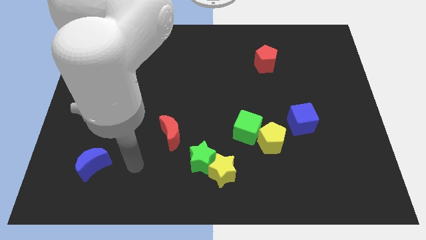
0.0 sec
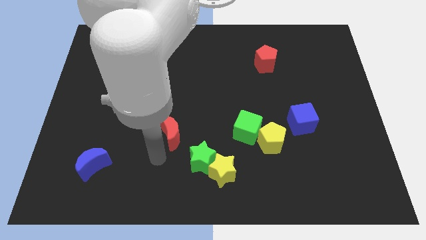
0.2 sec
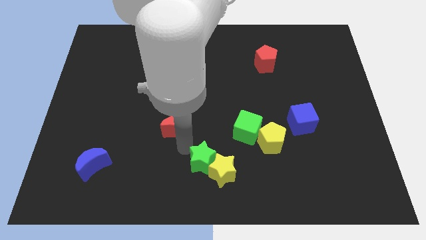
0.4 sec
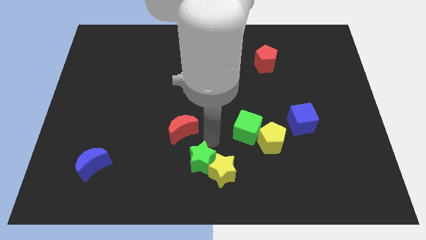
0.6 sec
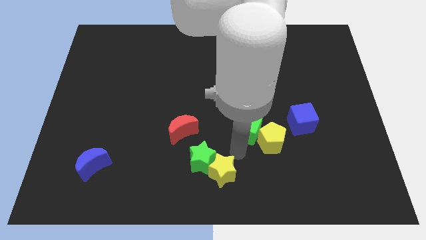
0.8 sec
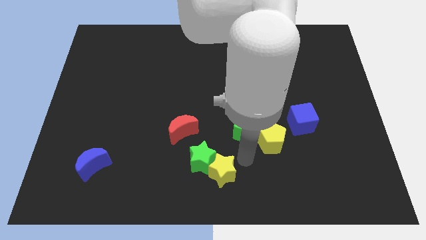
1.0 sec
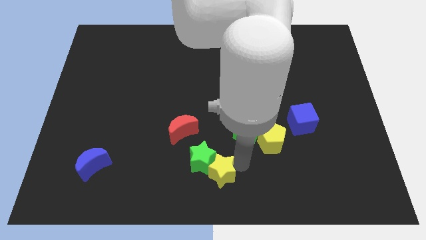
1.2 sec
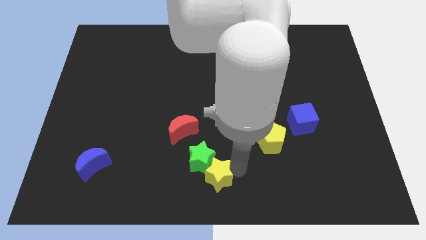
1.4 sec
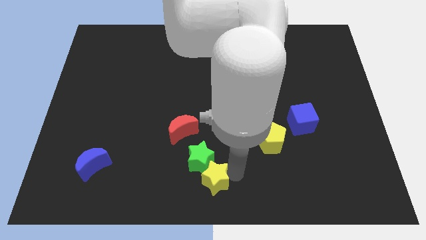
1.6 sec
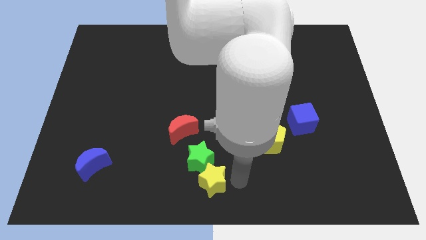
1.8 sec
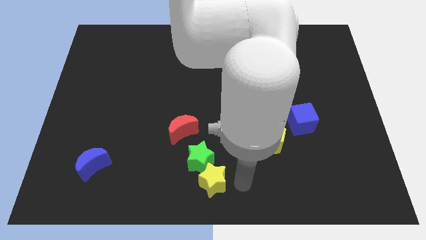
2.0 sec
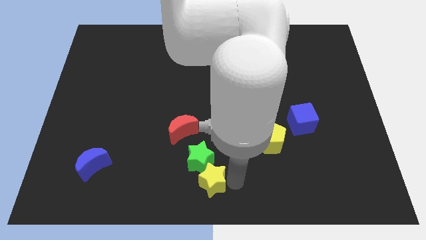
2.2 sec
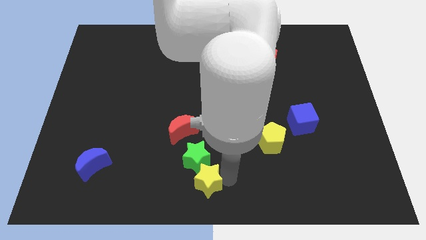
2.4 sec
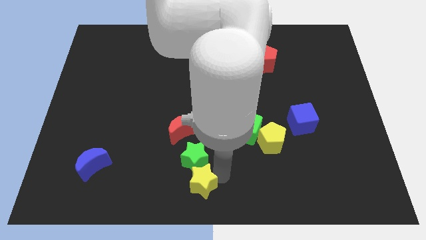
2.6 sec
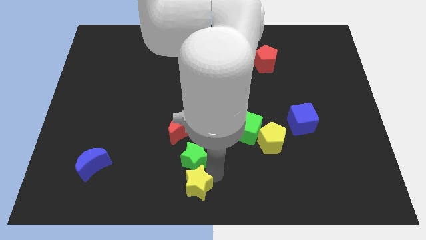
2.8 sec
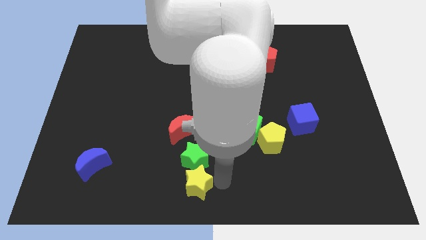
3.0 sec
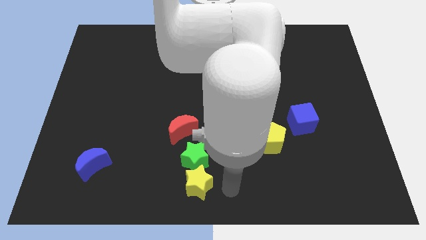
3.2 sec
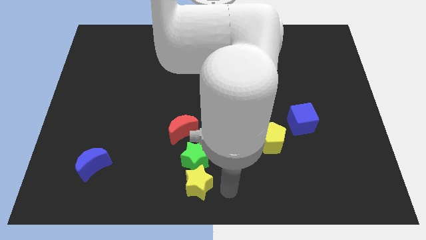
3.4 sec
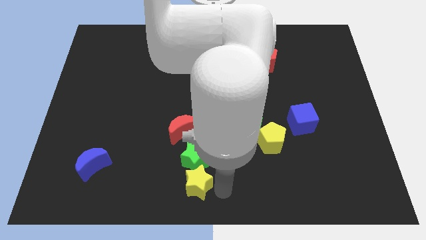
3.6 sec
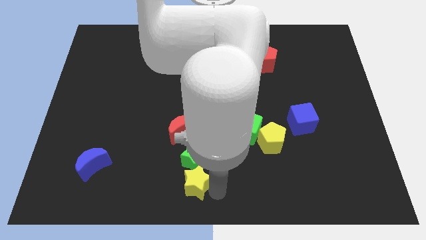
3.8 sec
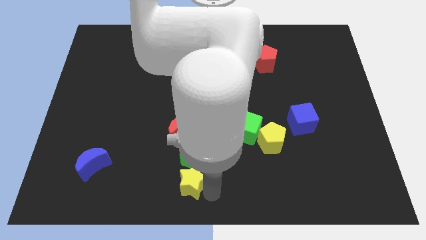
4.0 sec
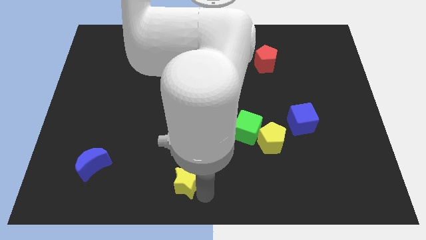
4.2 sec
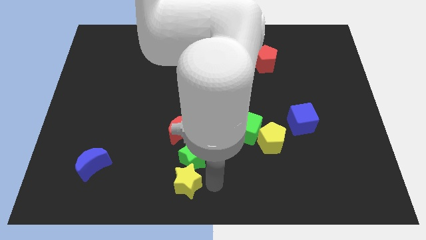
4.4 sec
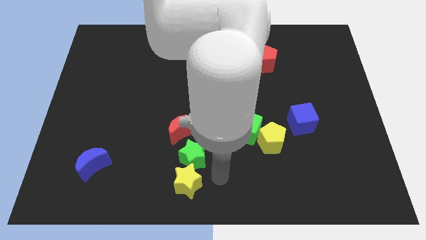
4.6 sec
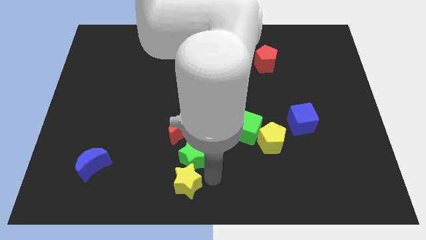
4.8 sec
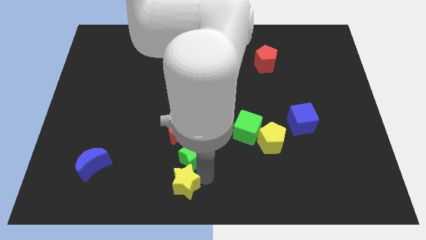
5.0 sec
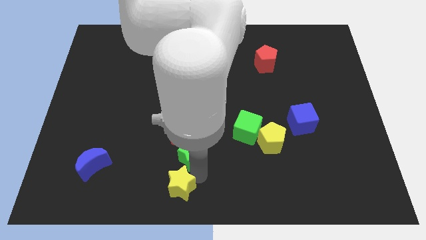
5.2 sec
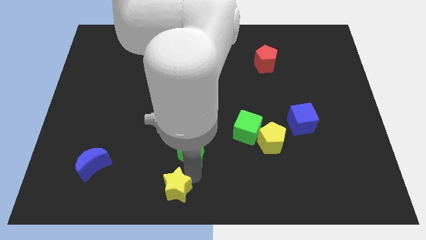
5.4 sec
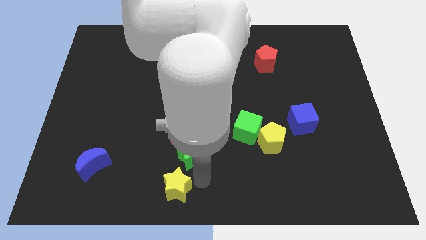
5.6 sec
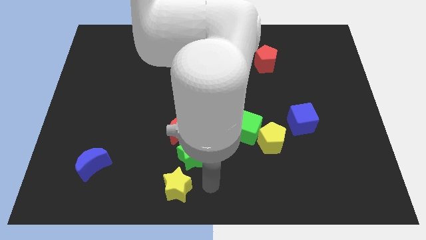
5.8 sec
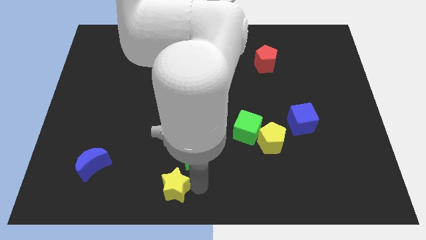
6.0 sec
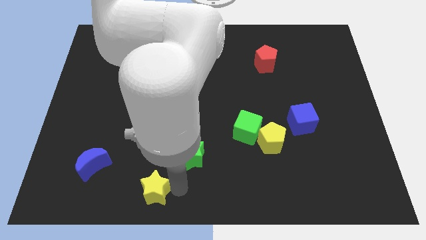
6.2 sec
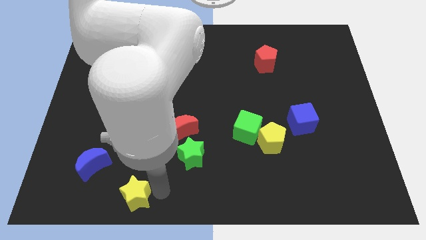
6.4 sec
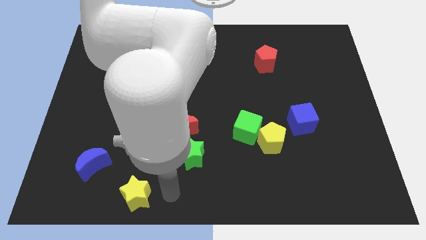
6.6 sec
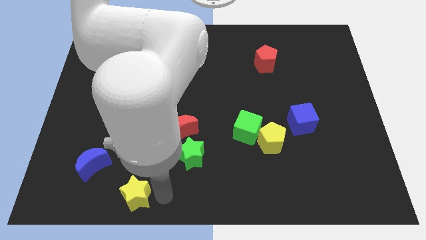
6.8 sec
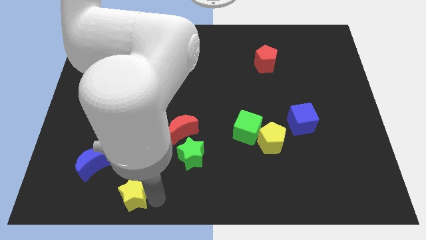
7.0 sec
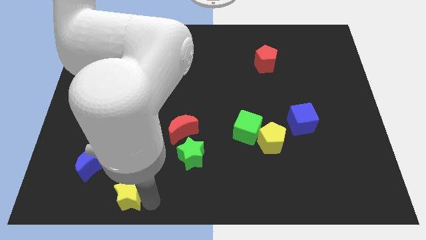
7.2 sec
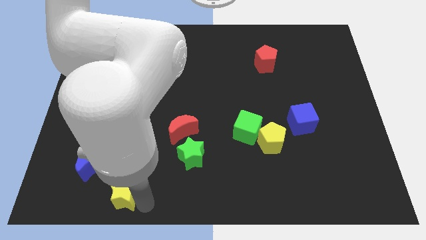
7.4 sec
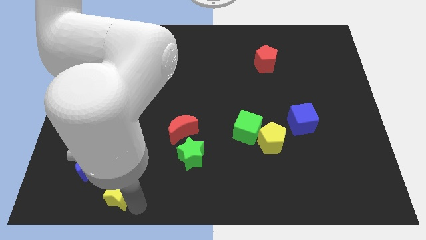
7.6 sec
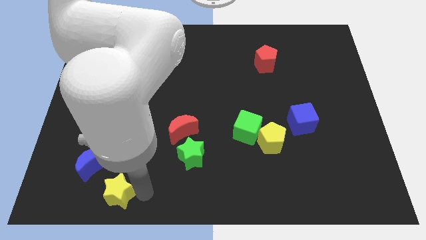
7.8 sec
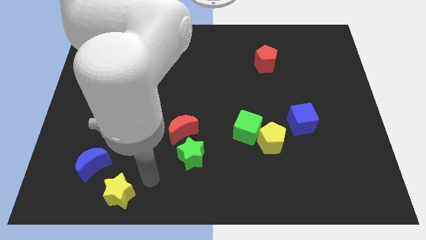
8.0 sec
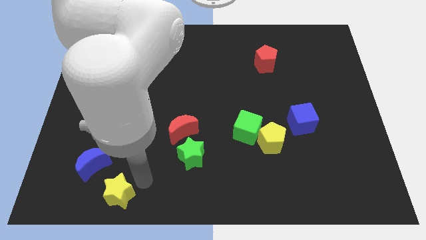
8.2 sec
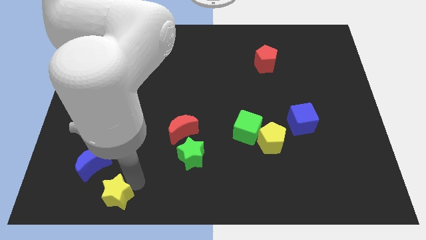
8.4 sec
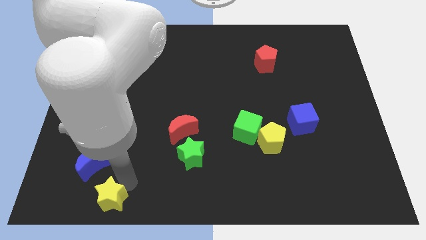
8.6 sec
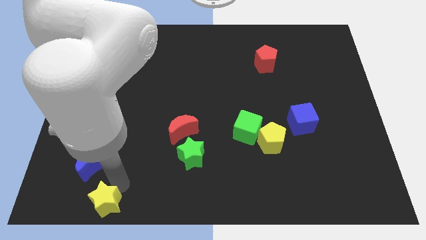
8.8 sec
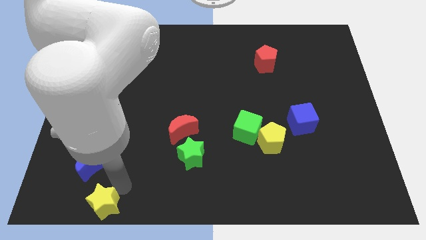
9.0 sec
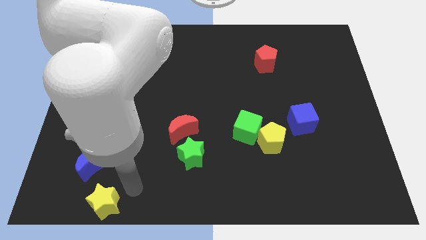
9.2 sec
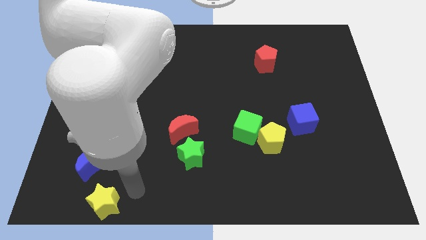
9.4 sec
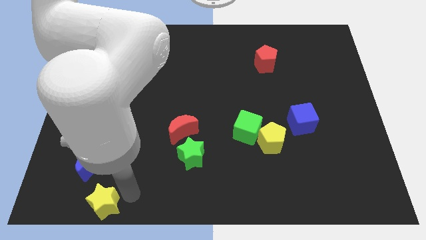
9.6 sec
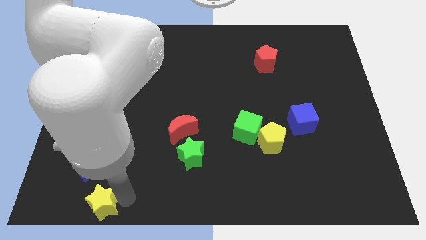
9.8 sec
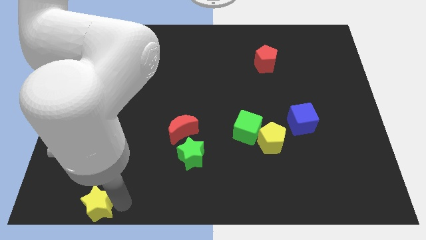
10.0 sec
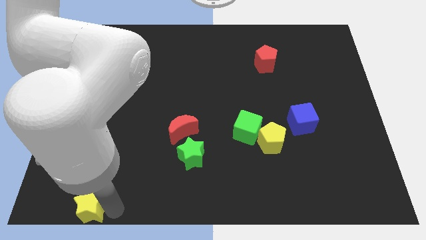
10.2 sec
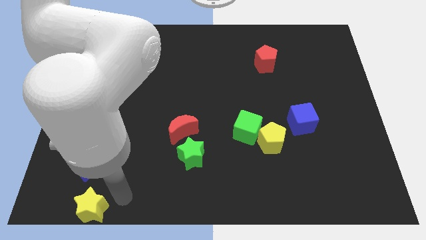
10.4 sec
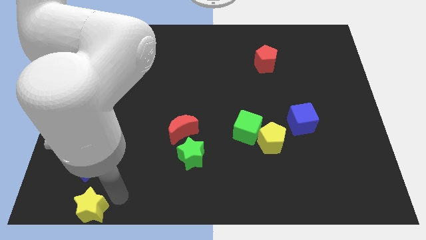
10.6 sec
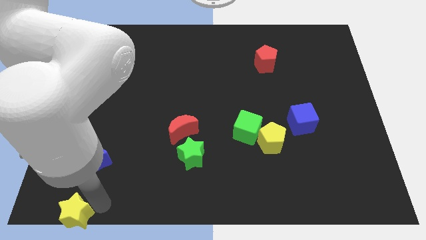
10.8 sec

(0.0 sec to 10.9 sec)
move the yellow star to the bottom left corner

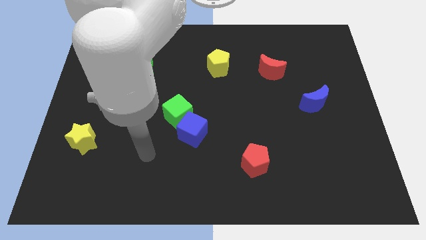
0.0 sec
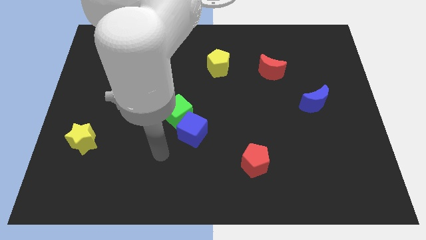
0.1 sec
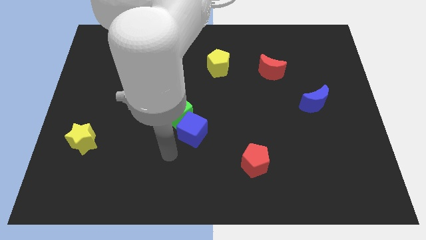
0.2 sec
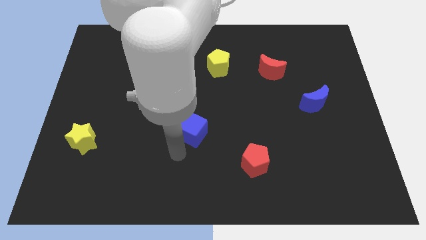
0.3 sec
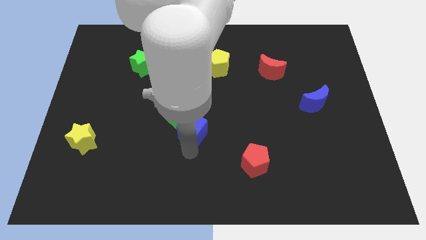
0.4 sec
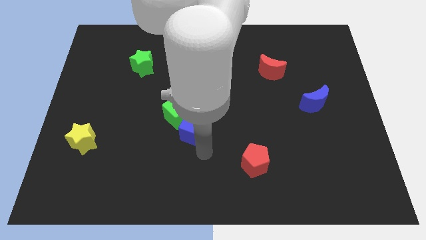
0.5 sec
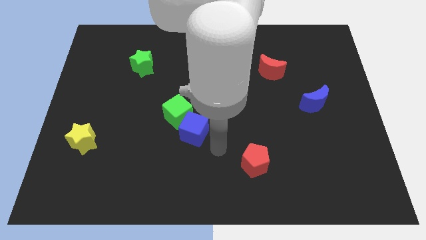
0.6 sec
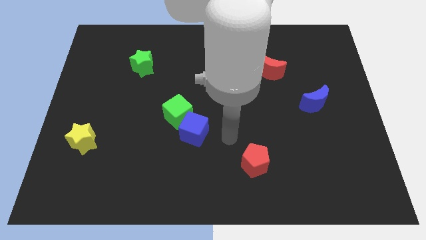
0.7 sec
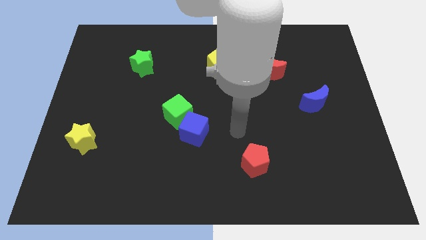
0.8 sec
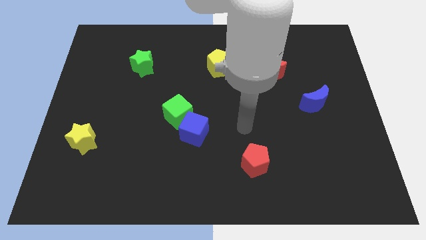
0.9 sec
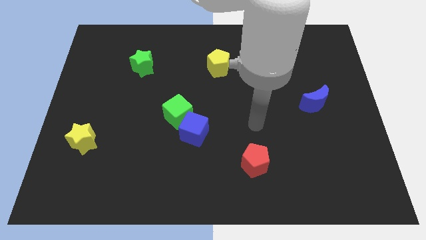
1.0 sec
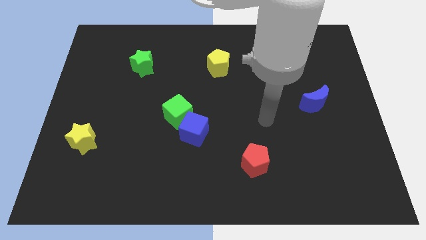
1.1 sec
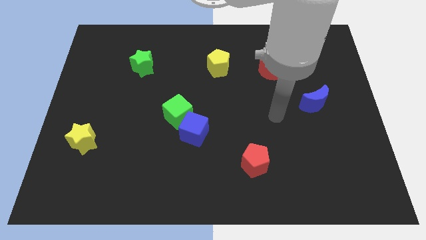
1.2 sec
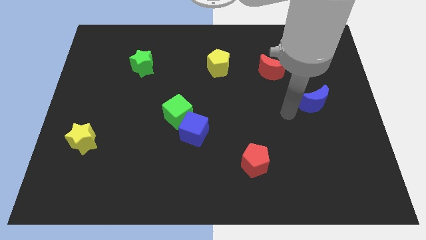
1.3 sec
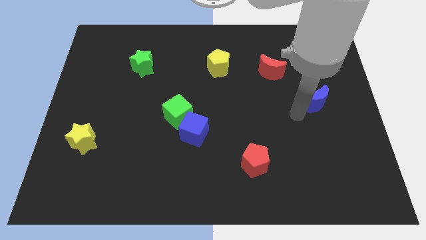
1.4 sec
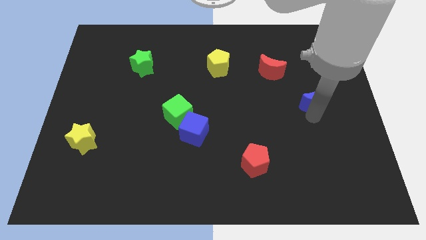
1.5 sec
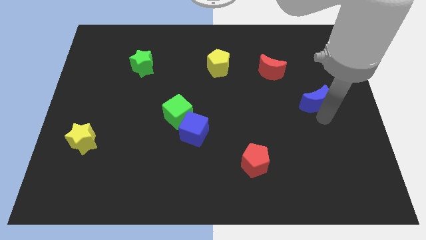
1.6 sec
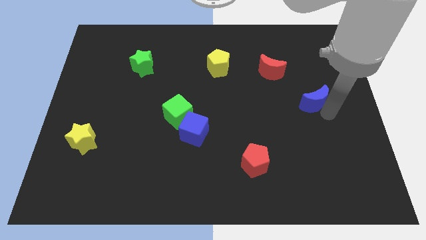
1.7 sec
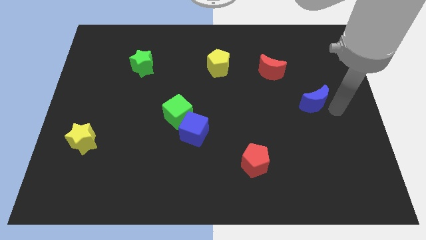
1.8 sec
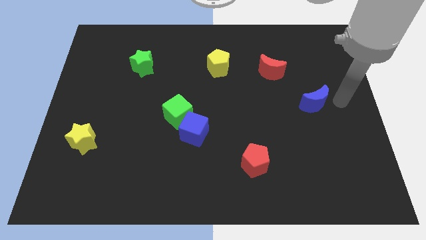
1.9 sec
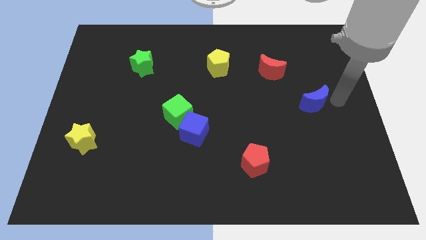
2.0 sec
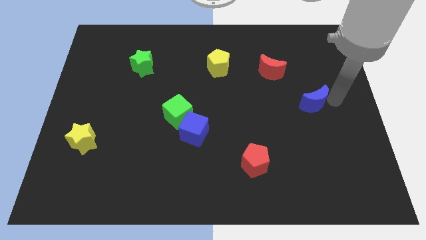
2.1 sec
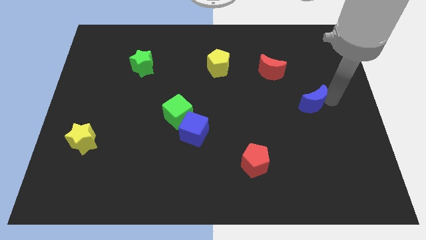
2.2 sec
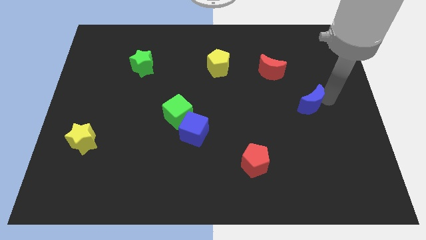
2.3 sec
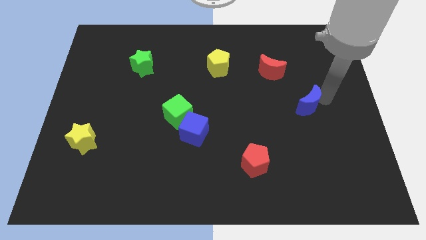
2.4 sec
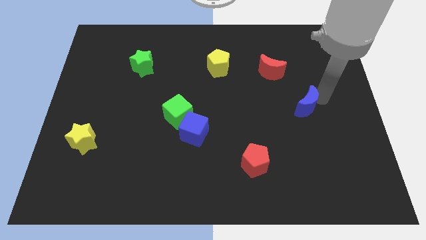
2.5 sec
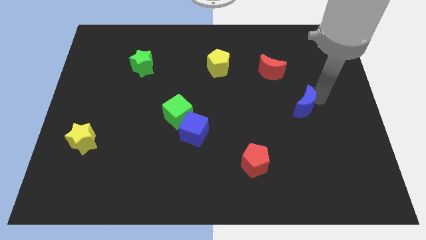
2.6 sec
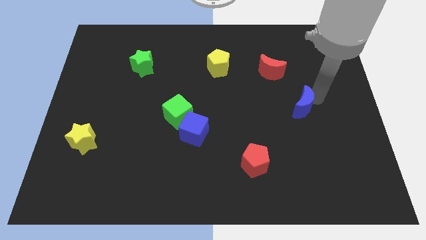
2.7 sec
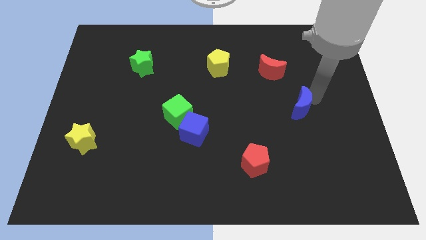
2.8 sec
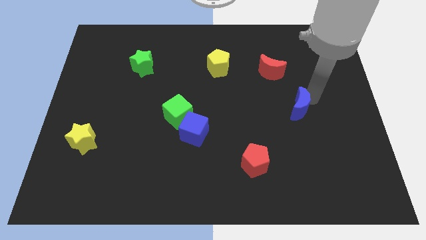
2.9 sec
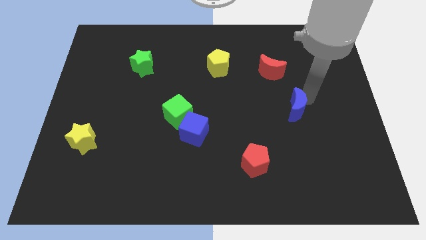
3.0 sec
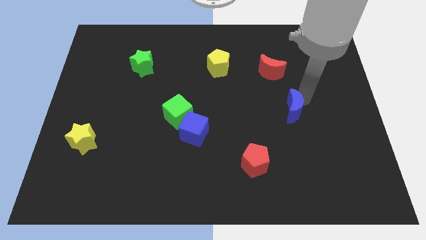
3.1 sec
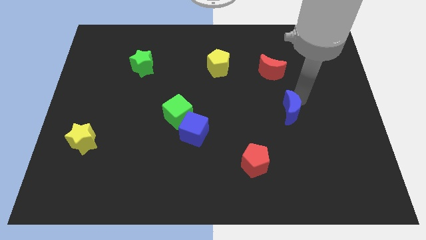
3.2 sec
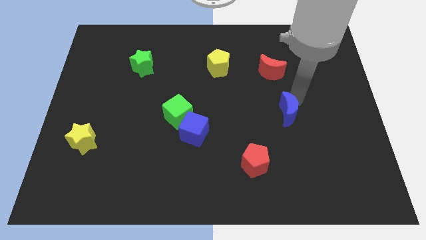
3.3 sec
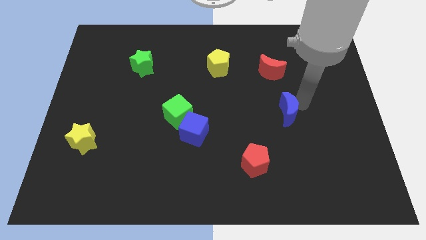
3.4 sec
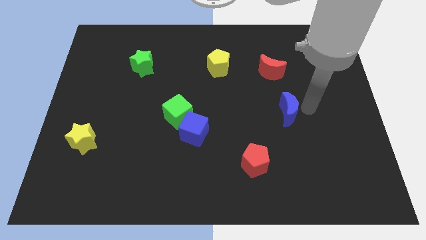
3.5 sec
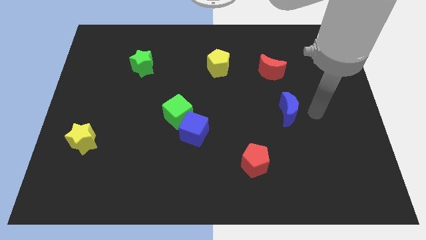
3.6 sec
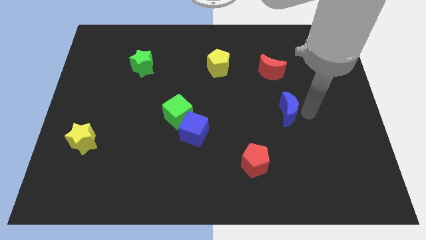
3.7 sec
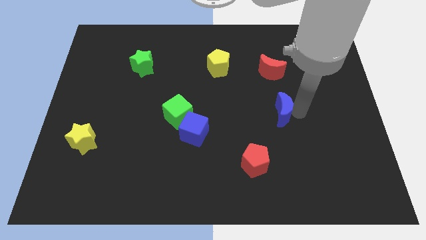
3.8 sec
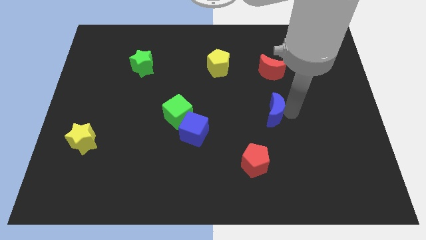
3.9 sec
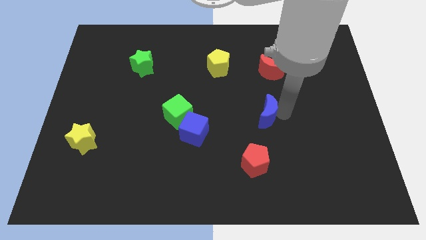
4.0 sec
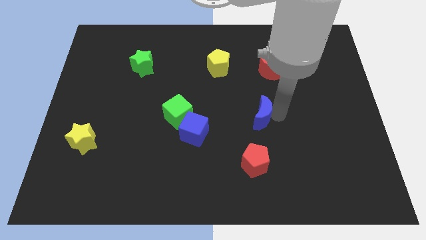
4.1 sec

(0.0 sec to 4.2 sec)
put the blue moon to the center of the board
